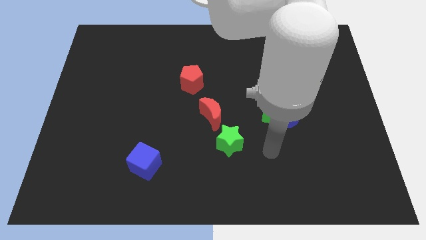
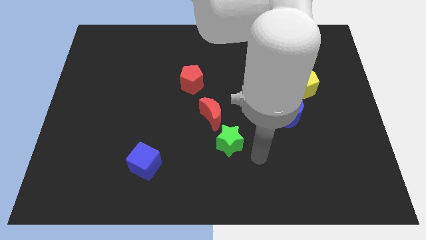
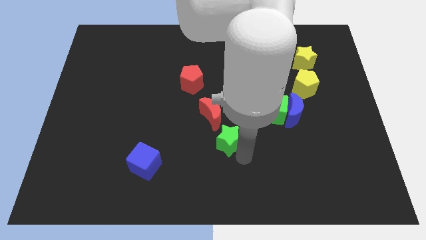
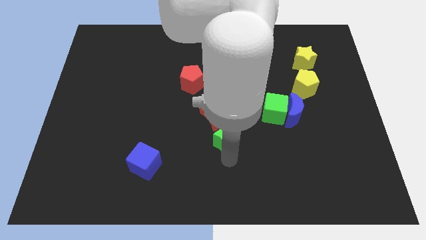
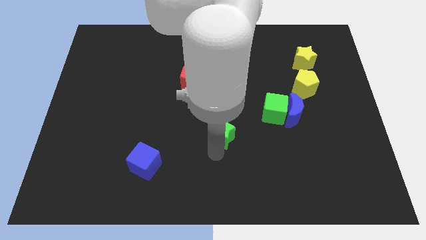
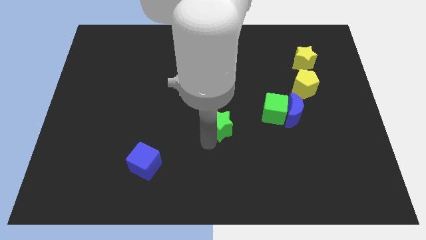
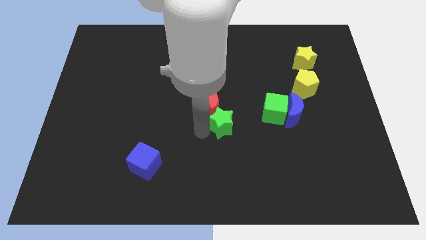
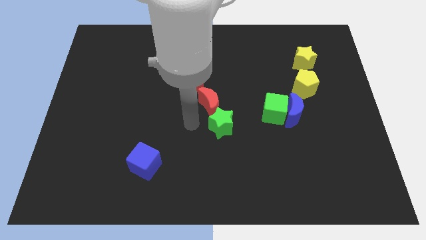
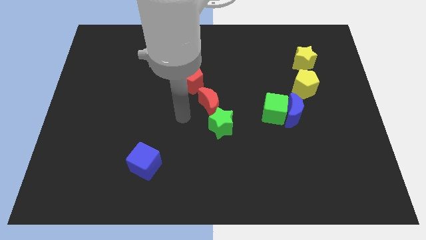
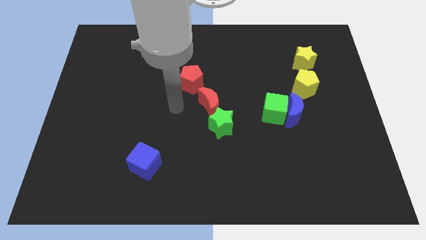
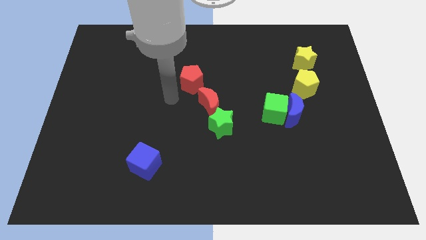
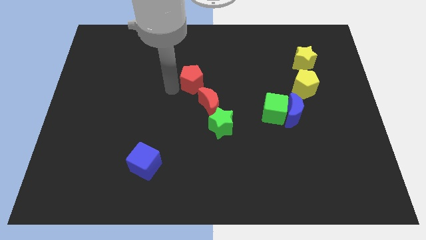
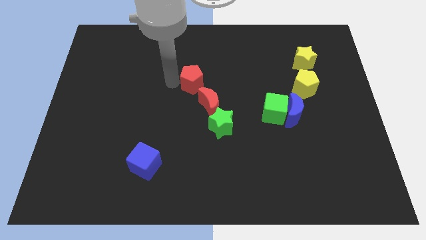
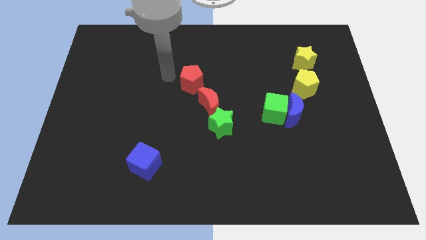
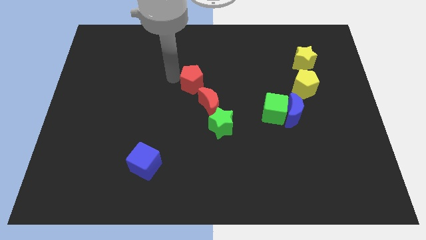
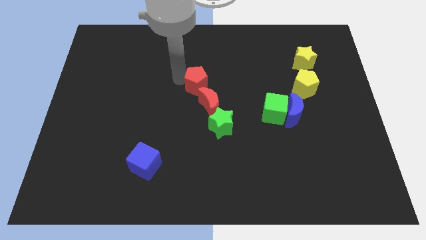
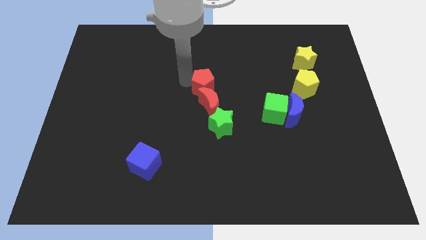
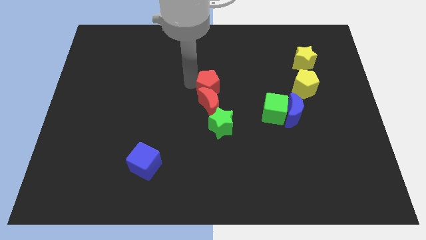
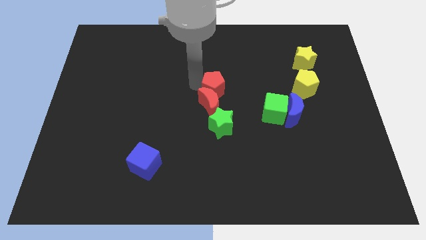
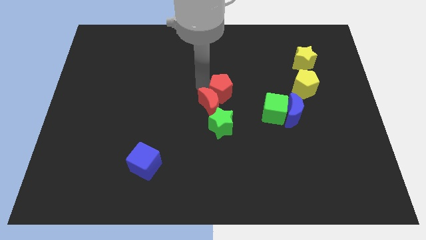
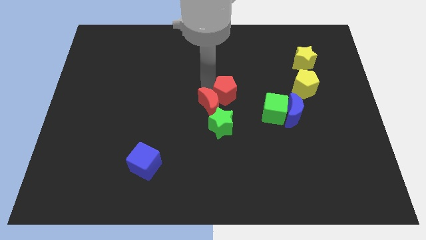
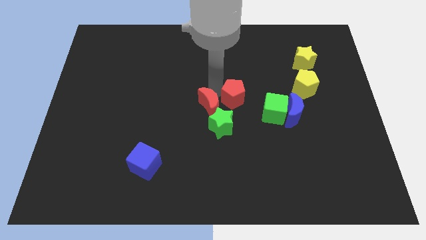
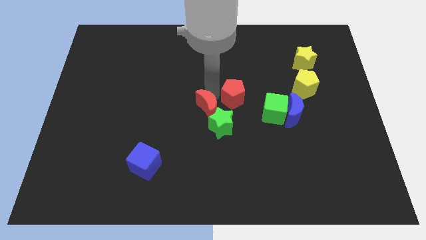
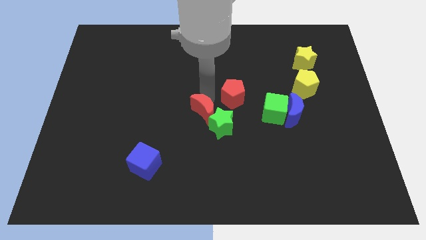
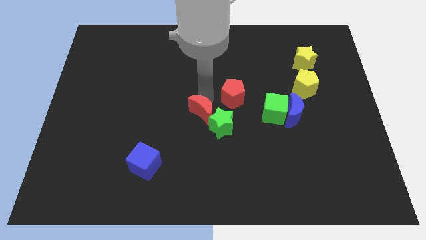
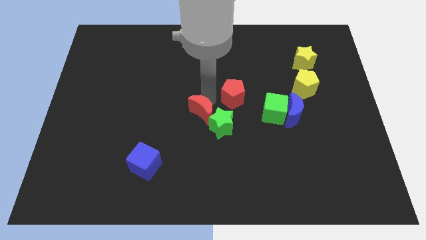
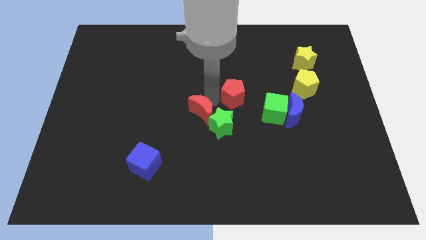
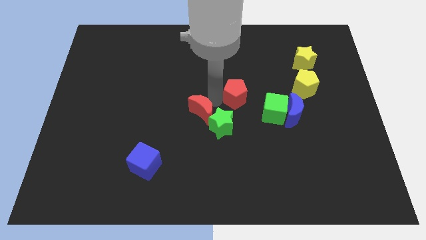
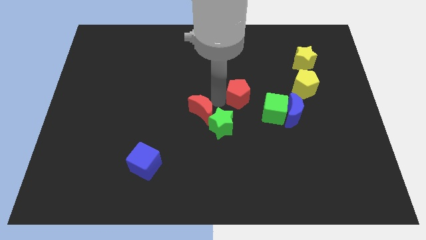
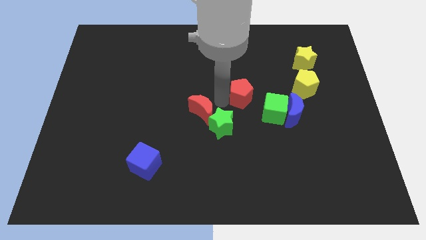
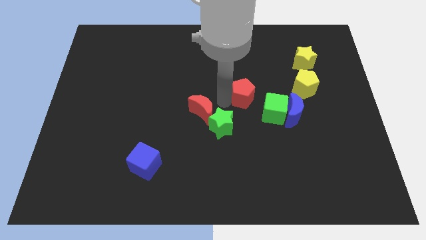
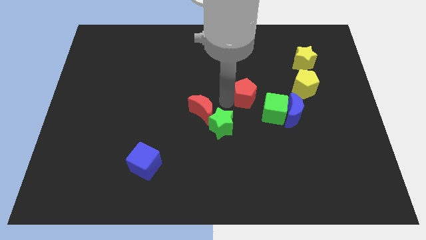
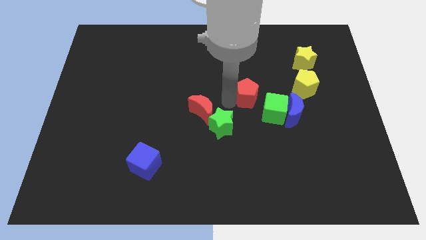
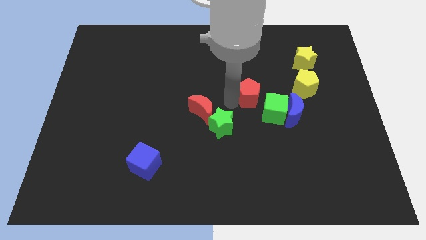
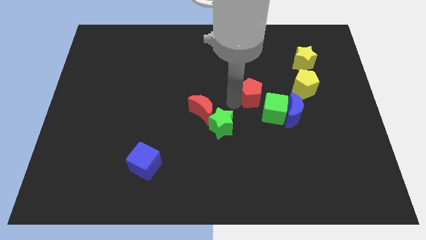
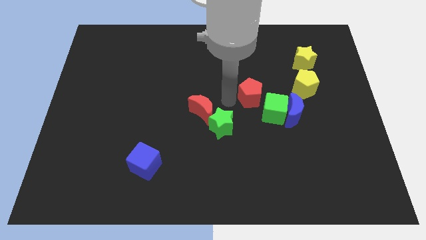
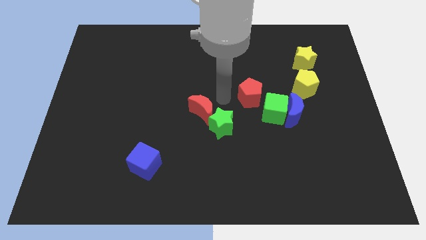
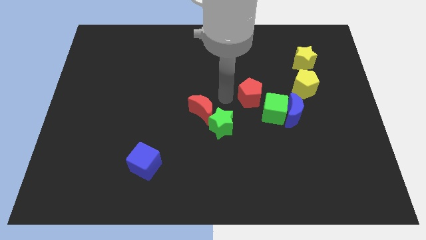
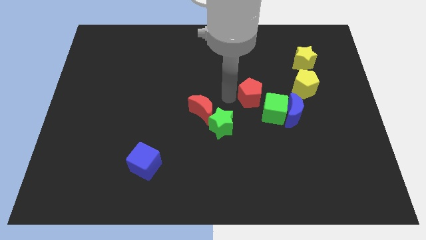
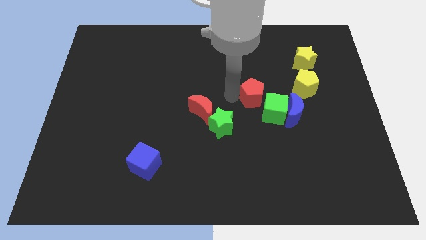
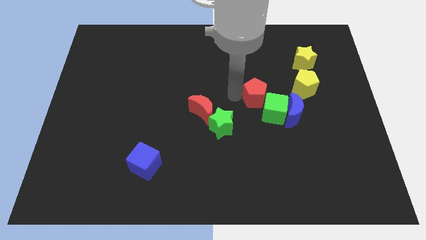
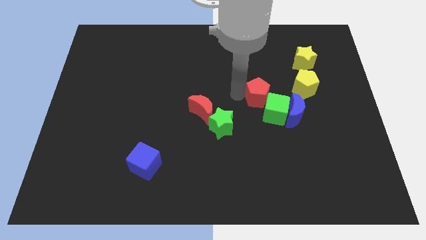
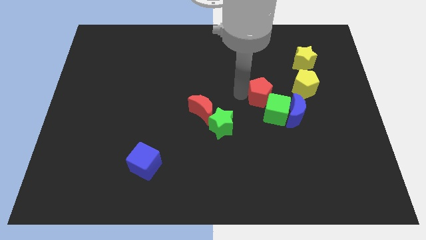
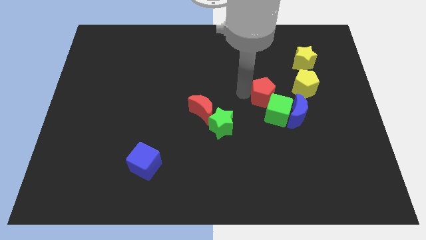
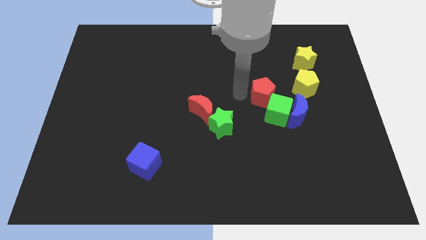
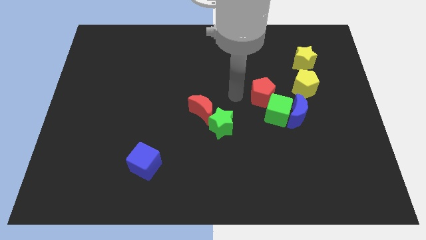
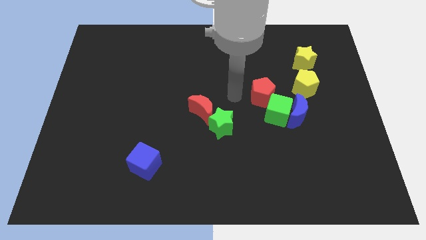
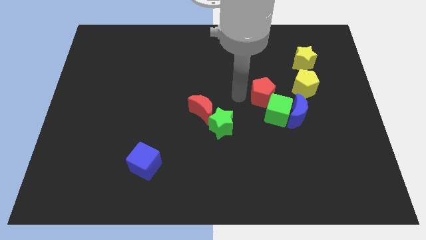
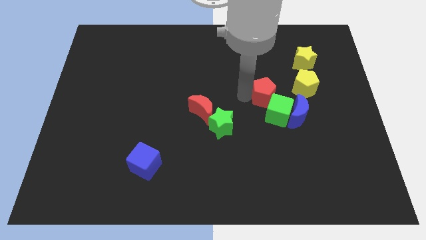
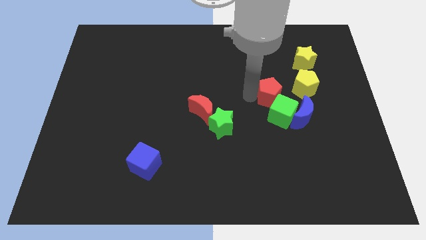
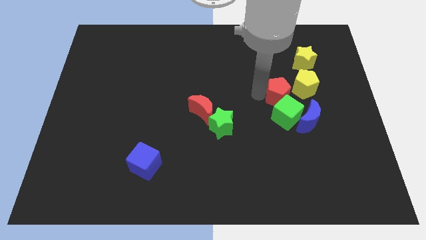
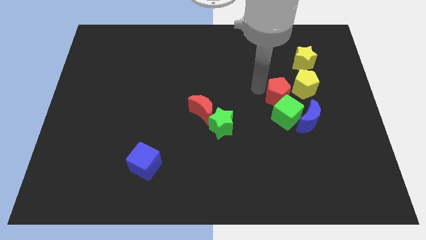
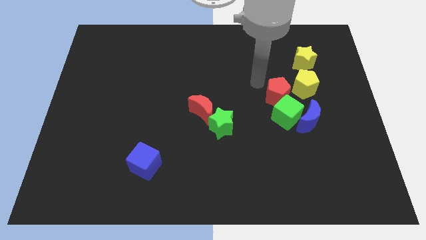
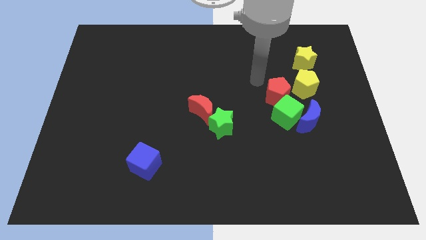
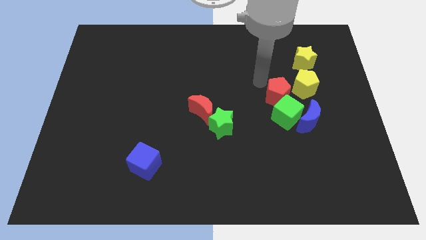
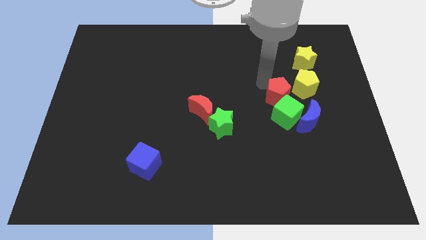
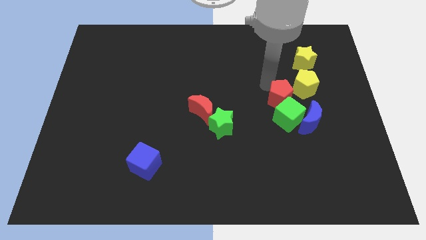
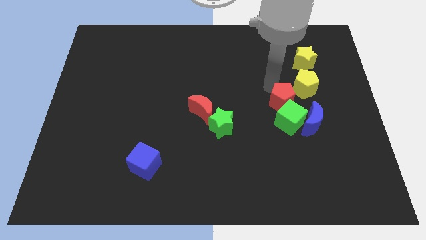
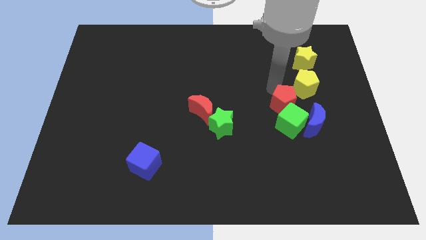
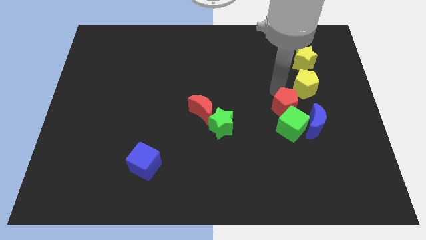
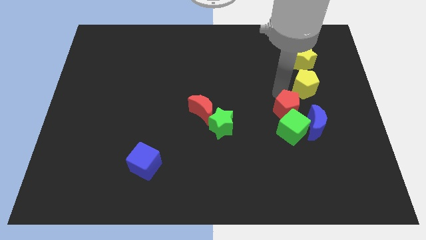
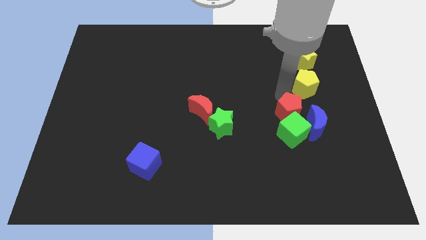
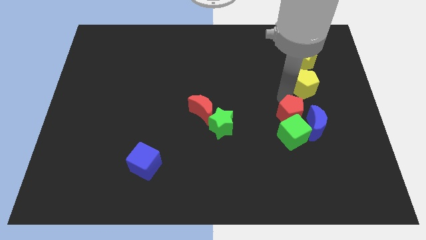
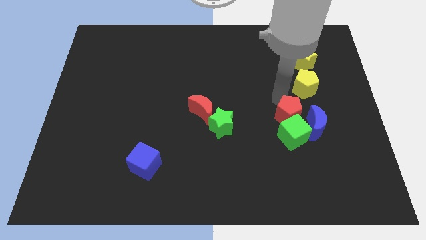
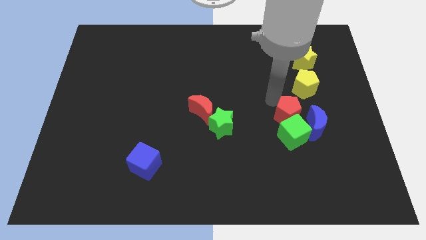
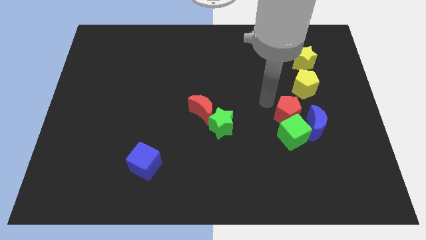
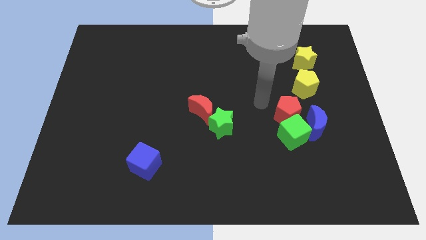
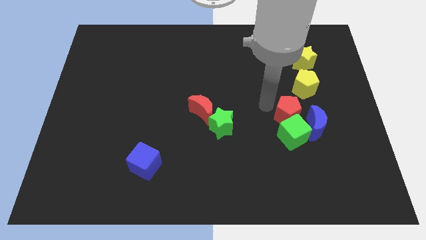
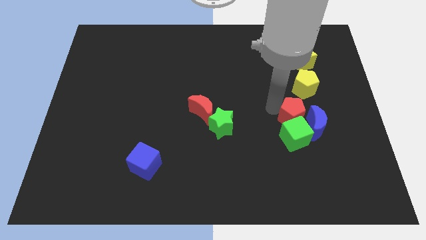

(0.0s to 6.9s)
put the red pentagon next to the blue moon
